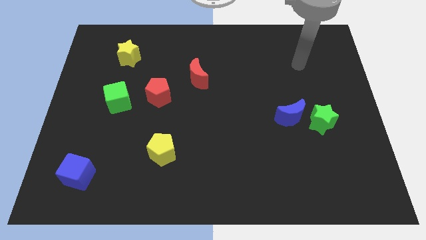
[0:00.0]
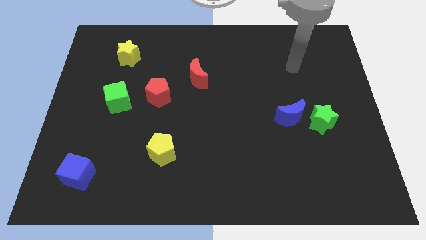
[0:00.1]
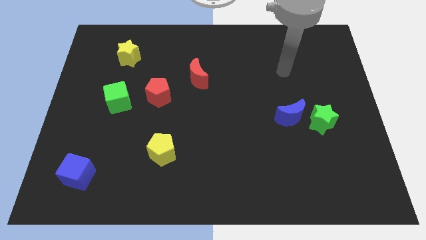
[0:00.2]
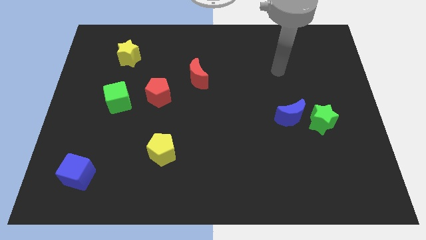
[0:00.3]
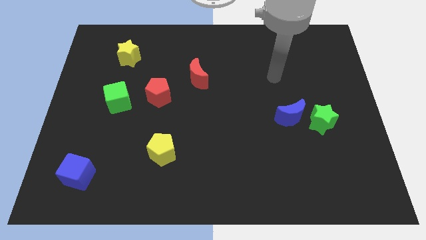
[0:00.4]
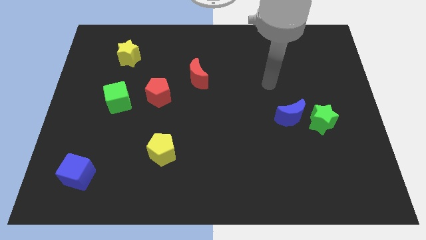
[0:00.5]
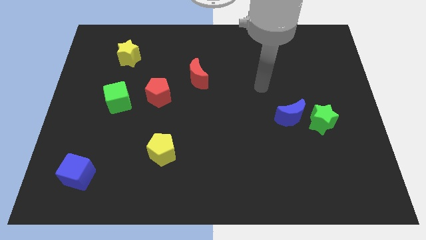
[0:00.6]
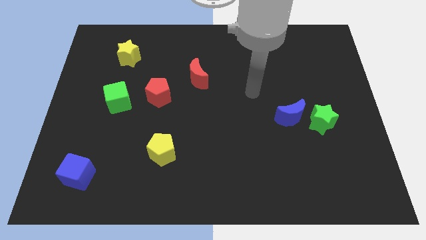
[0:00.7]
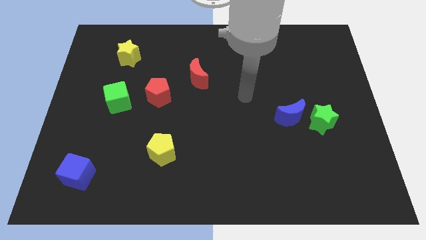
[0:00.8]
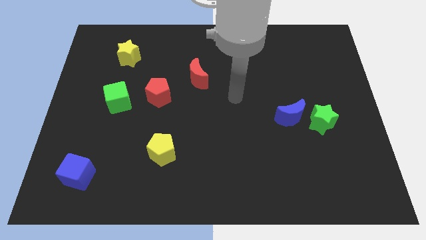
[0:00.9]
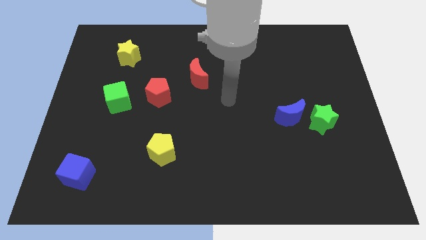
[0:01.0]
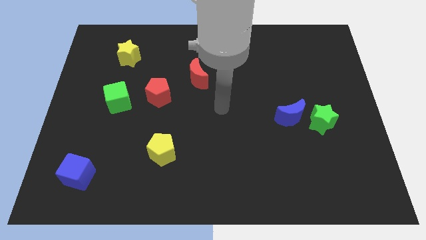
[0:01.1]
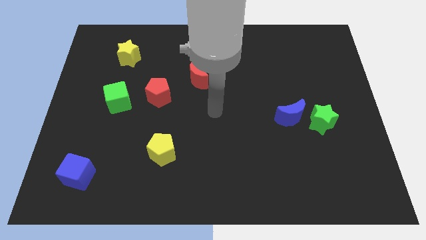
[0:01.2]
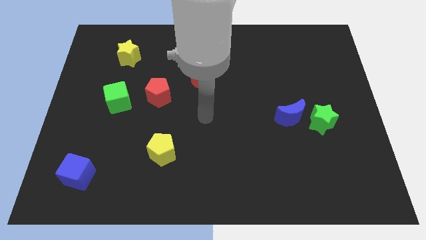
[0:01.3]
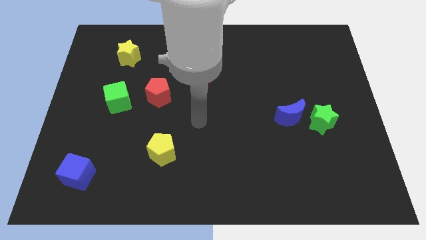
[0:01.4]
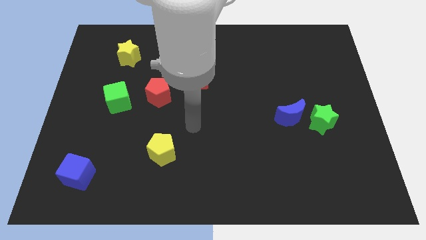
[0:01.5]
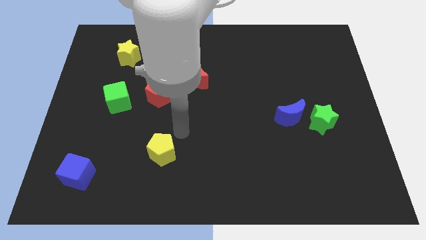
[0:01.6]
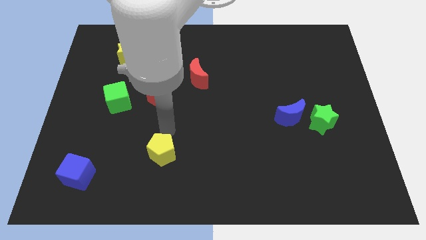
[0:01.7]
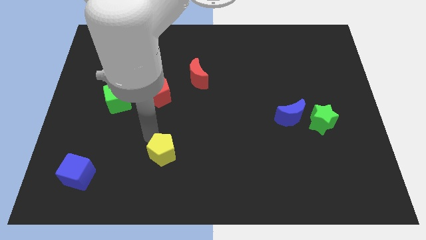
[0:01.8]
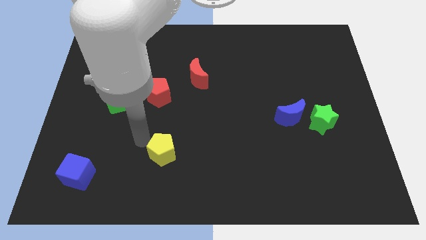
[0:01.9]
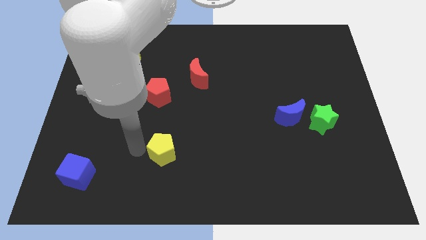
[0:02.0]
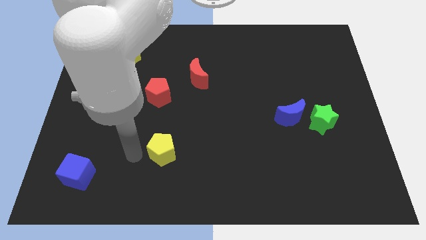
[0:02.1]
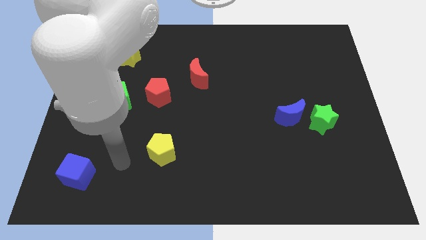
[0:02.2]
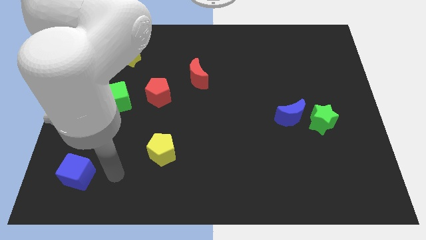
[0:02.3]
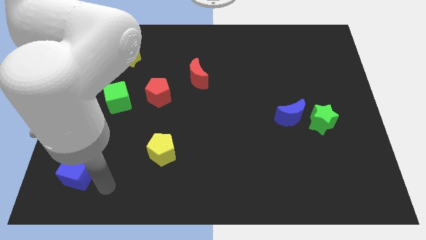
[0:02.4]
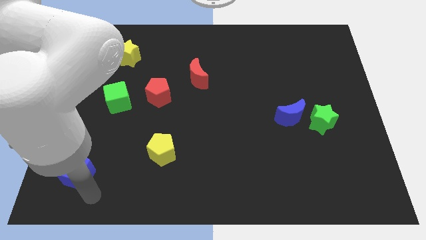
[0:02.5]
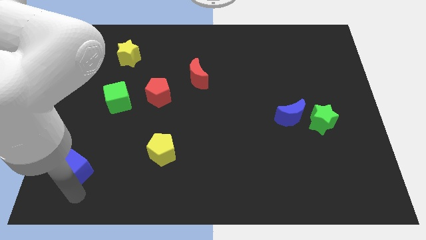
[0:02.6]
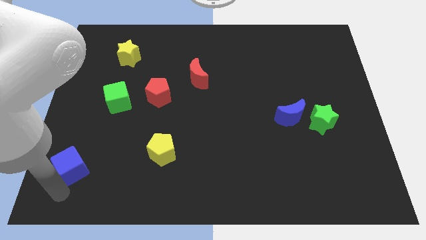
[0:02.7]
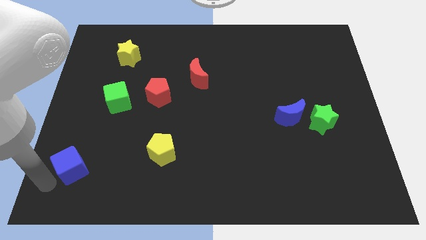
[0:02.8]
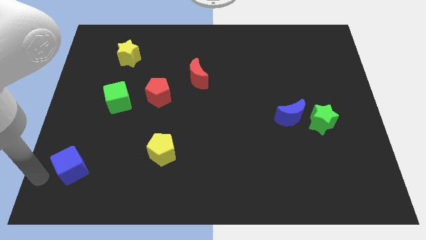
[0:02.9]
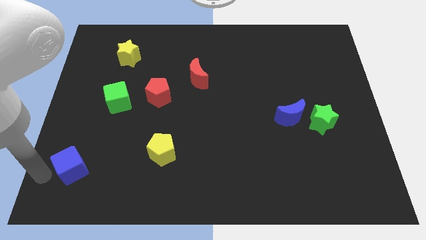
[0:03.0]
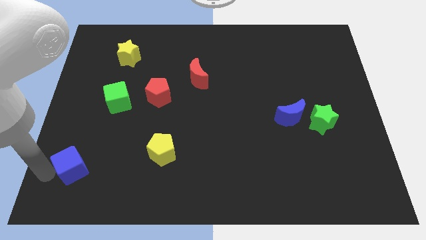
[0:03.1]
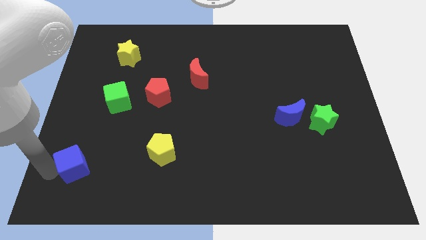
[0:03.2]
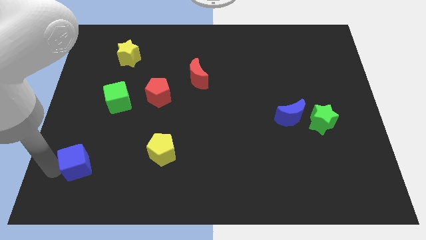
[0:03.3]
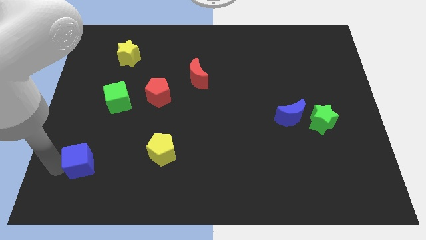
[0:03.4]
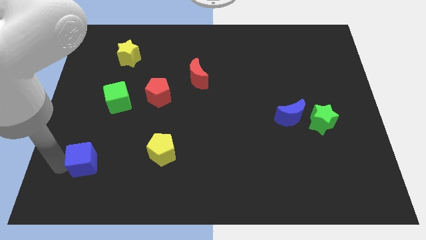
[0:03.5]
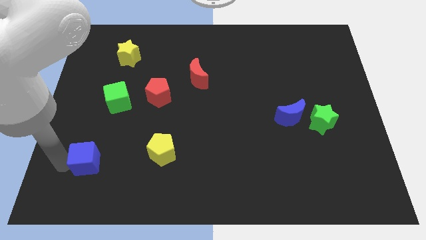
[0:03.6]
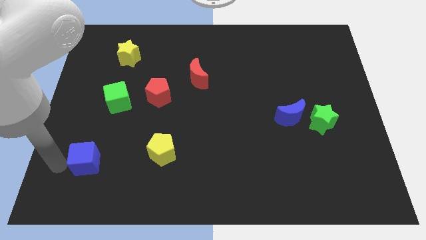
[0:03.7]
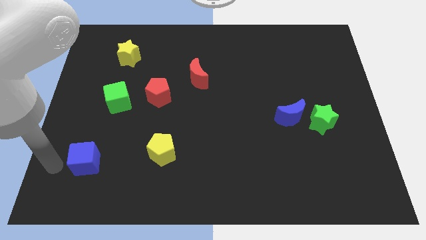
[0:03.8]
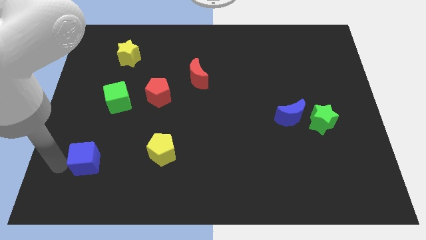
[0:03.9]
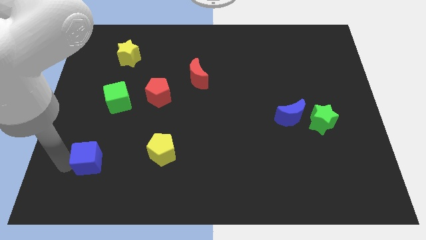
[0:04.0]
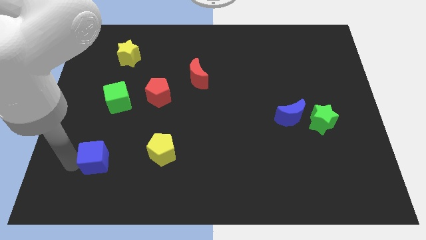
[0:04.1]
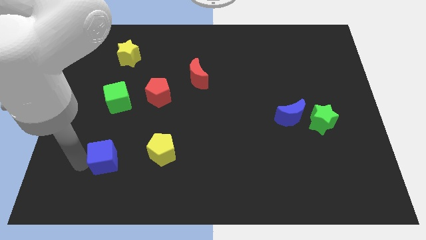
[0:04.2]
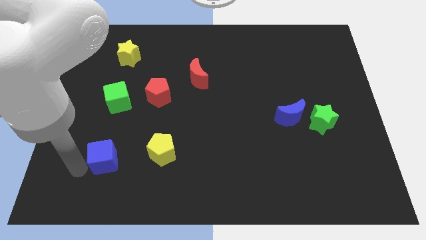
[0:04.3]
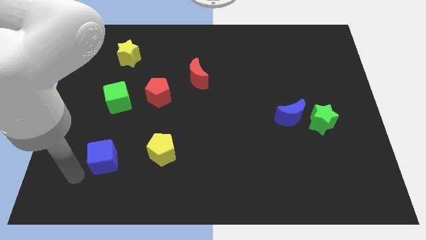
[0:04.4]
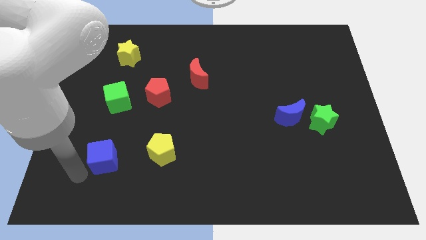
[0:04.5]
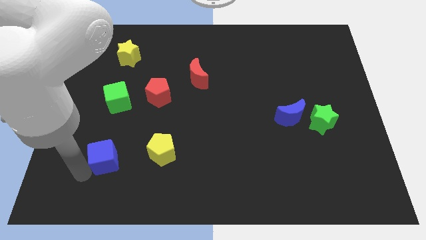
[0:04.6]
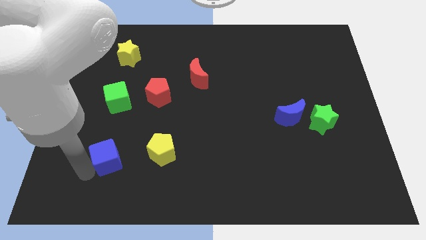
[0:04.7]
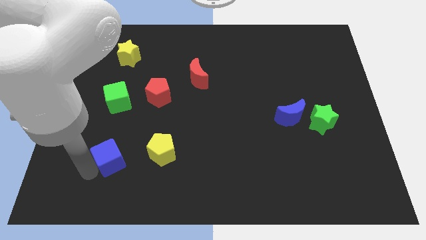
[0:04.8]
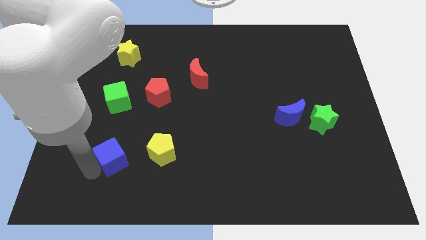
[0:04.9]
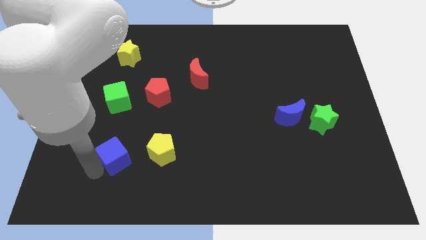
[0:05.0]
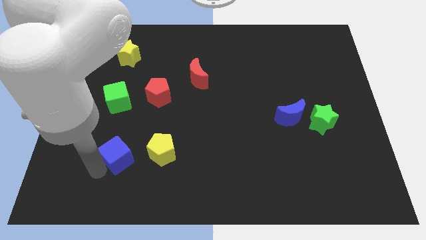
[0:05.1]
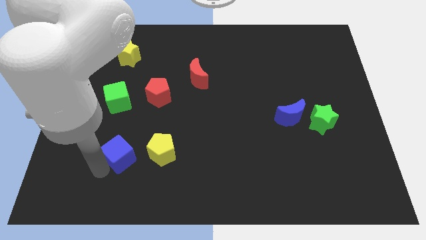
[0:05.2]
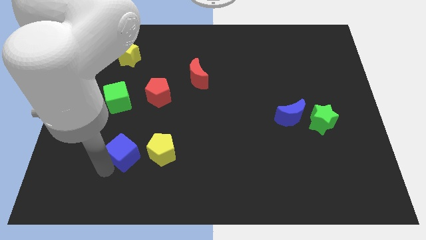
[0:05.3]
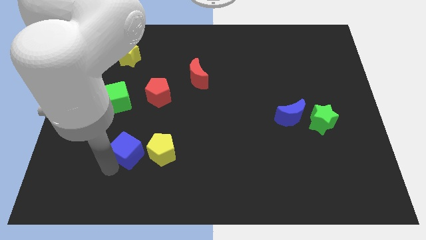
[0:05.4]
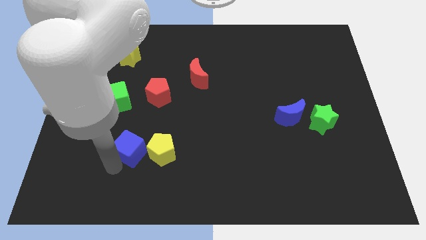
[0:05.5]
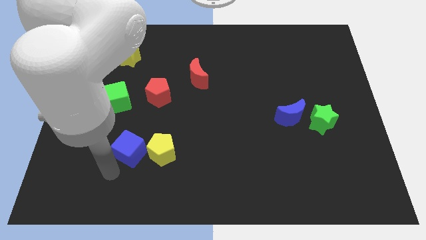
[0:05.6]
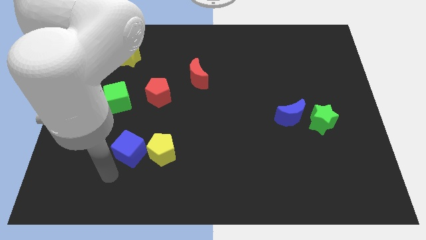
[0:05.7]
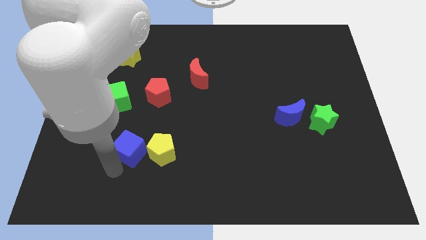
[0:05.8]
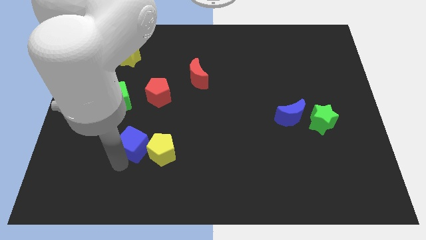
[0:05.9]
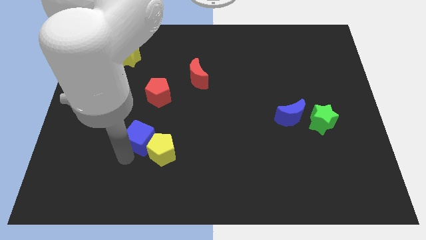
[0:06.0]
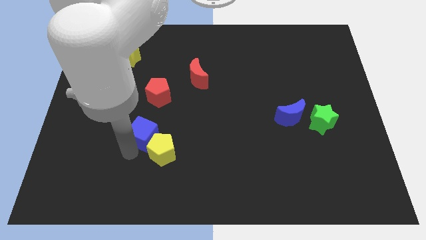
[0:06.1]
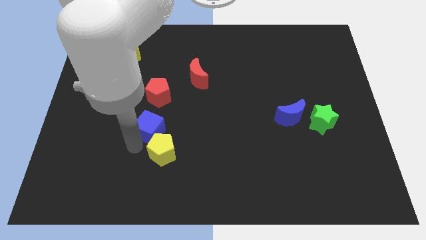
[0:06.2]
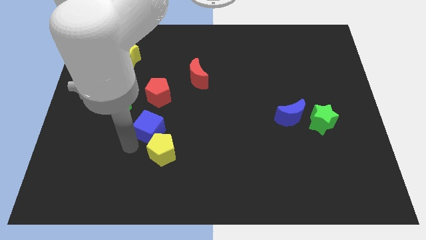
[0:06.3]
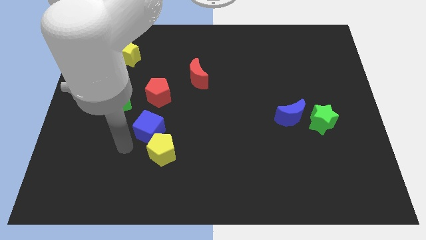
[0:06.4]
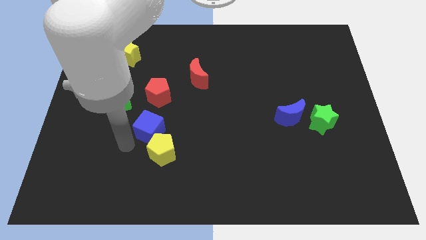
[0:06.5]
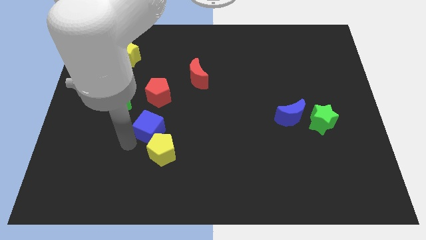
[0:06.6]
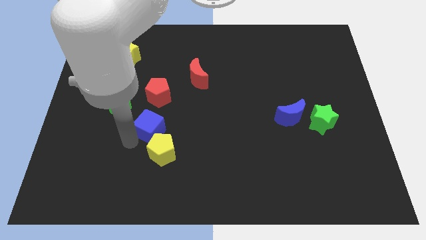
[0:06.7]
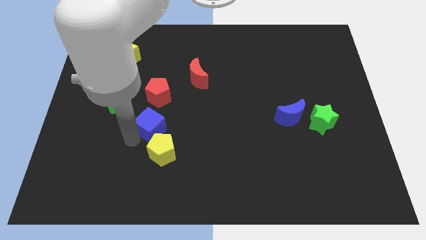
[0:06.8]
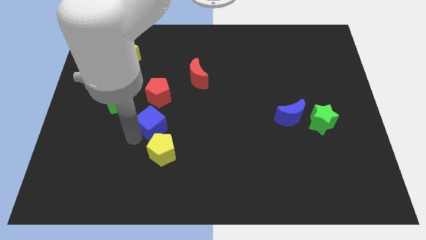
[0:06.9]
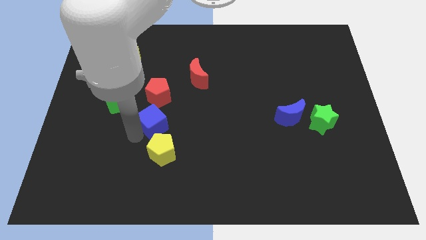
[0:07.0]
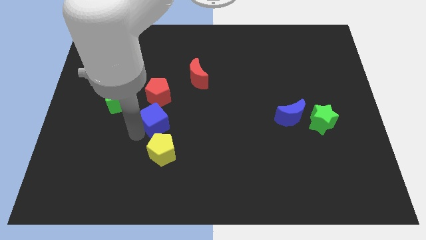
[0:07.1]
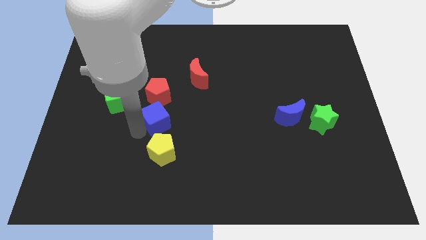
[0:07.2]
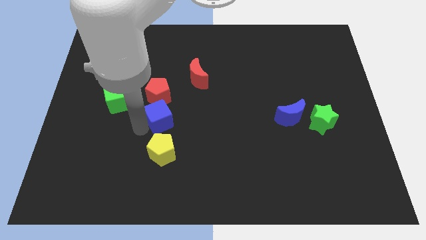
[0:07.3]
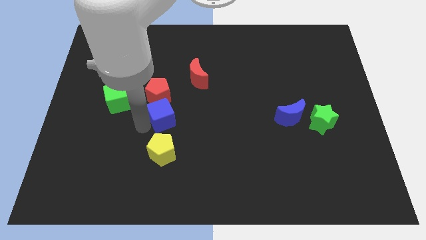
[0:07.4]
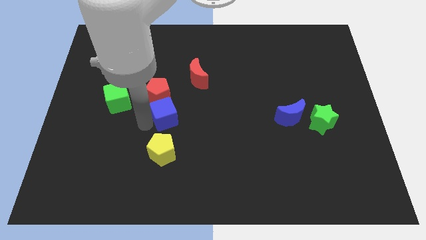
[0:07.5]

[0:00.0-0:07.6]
put the blue cube to the center of the board
